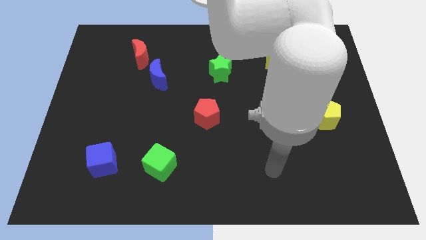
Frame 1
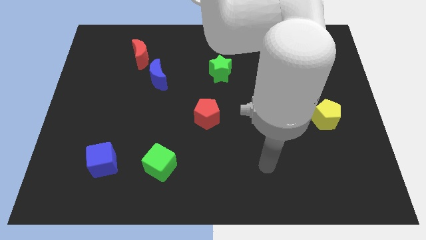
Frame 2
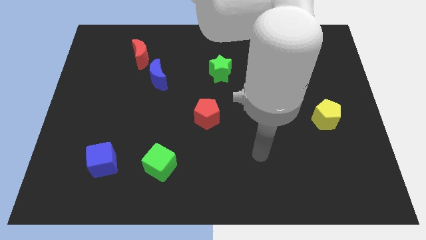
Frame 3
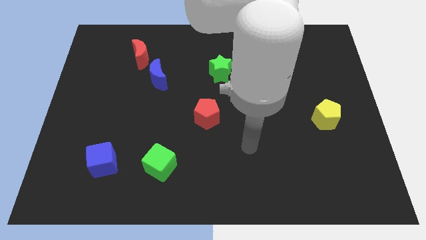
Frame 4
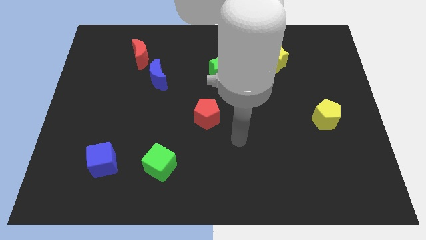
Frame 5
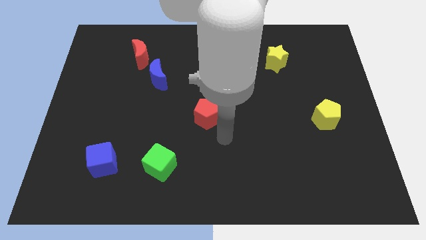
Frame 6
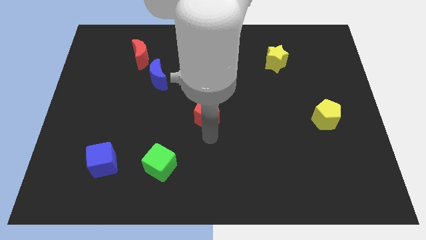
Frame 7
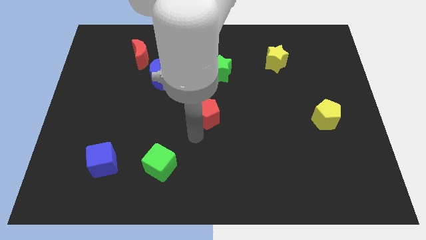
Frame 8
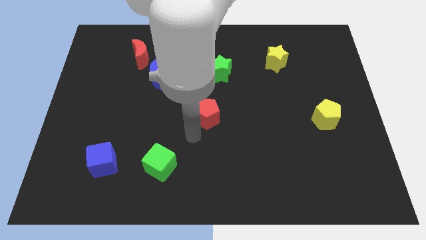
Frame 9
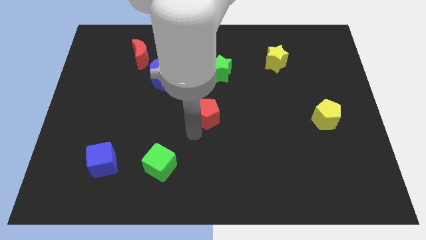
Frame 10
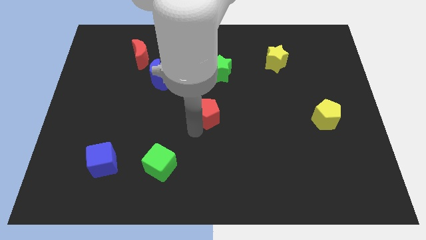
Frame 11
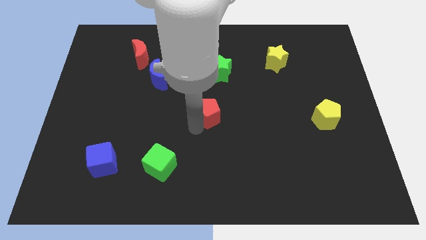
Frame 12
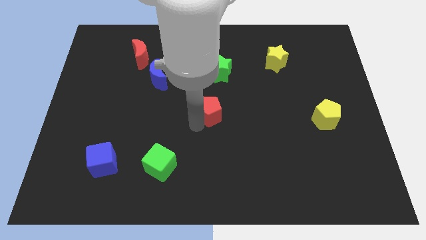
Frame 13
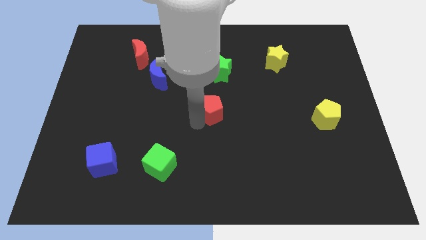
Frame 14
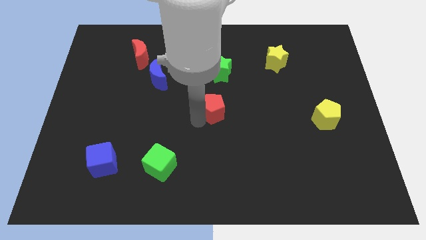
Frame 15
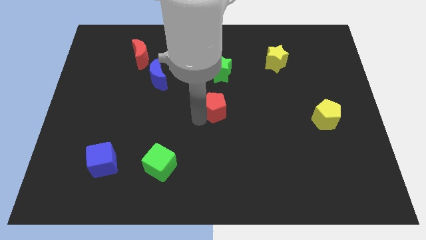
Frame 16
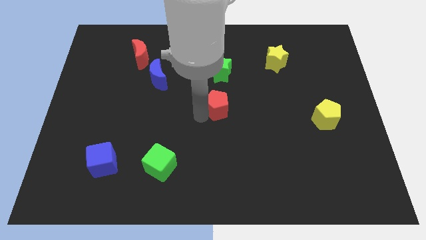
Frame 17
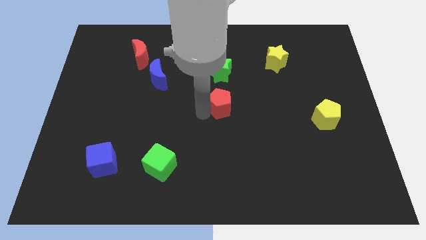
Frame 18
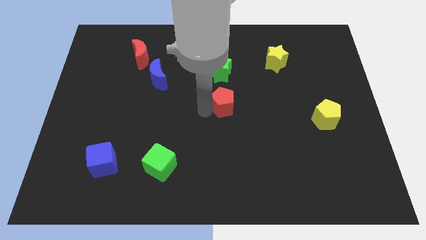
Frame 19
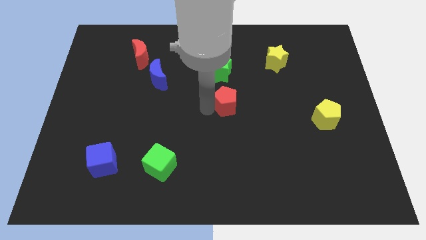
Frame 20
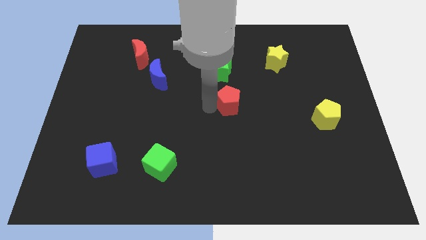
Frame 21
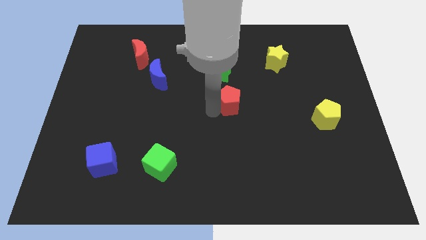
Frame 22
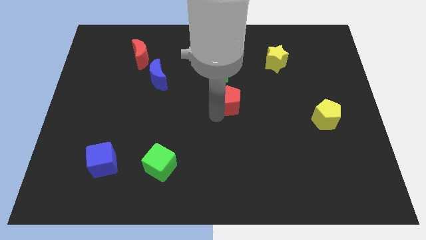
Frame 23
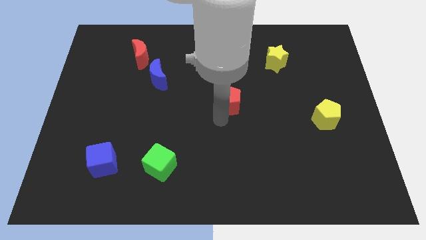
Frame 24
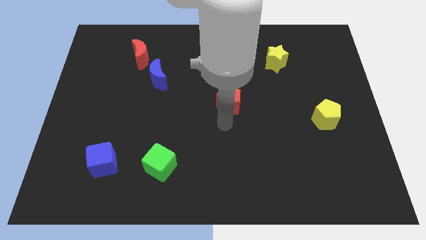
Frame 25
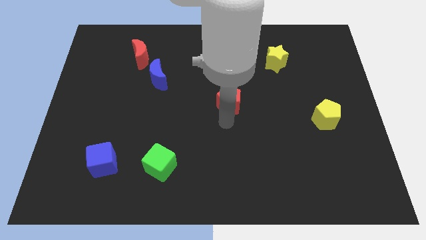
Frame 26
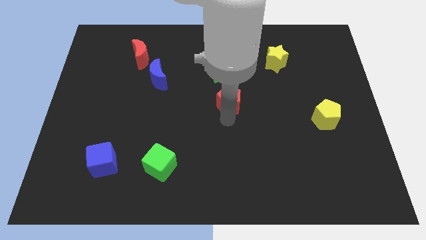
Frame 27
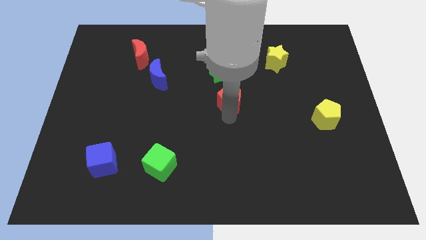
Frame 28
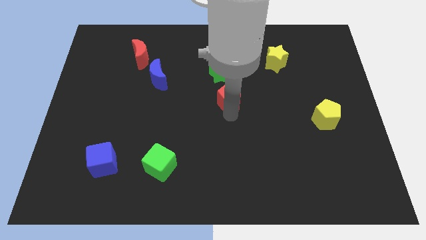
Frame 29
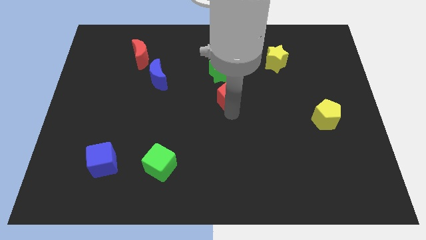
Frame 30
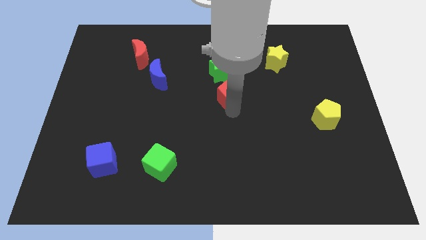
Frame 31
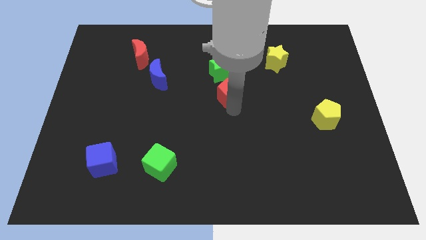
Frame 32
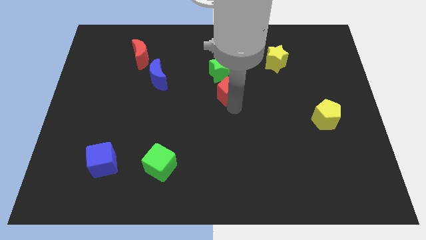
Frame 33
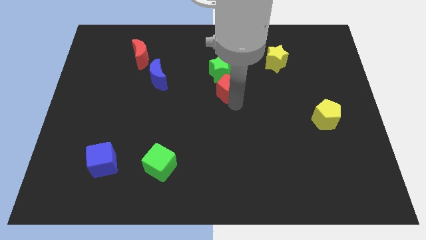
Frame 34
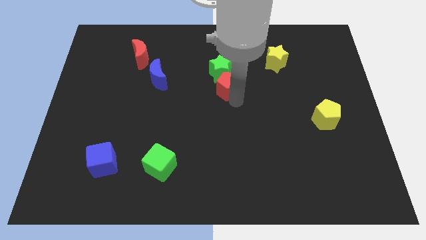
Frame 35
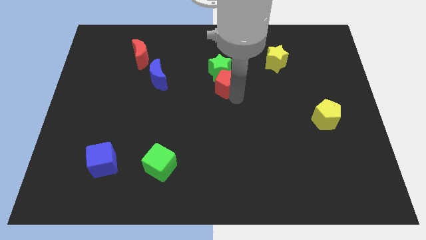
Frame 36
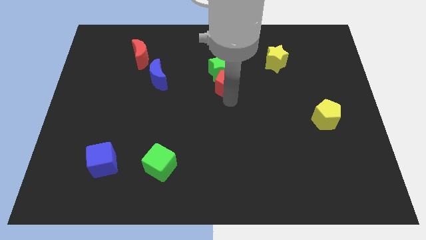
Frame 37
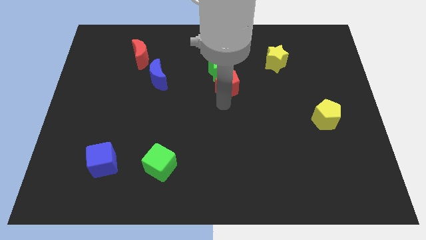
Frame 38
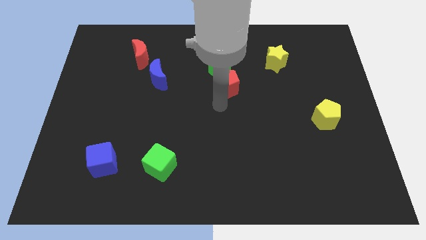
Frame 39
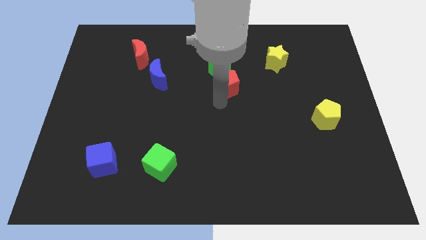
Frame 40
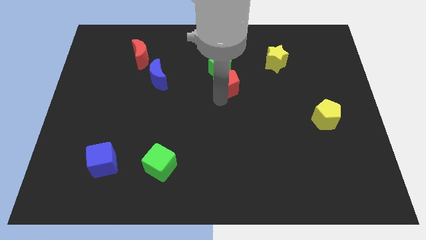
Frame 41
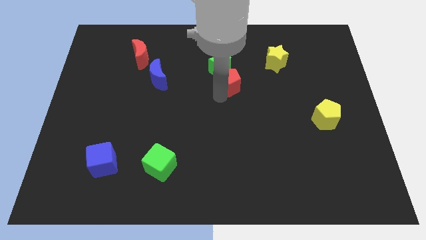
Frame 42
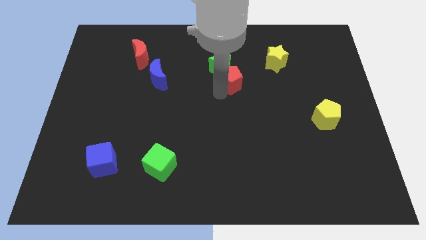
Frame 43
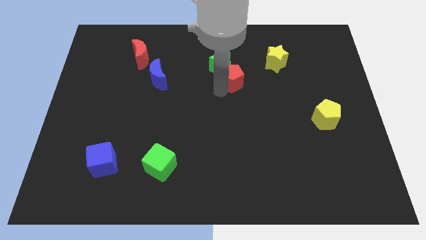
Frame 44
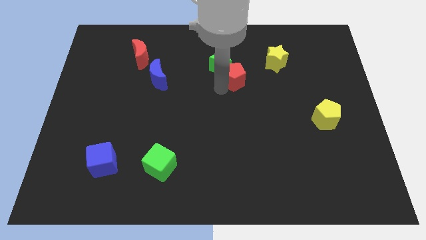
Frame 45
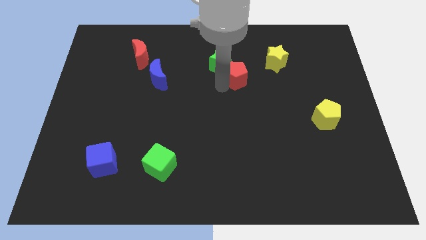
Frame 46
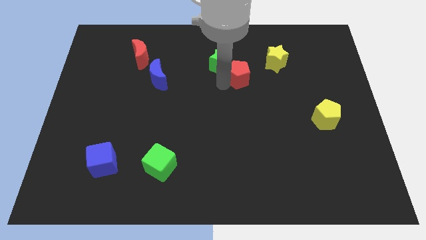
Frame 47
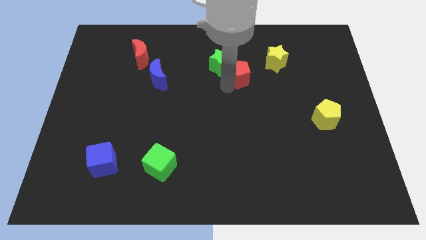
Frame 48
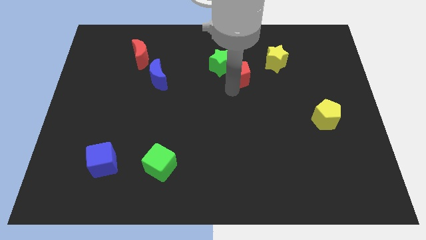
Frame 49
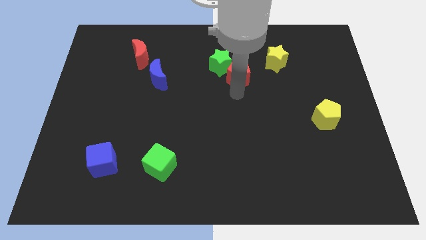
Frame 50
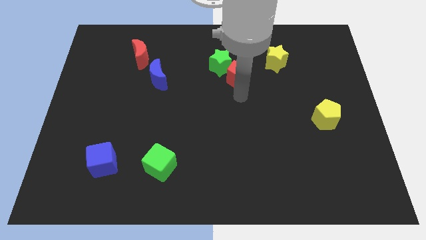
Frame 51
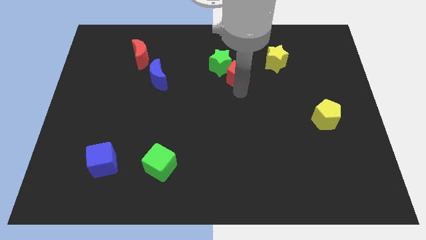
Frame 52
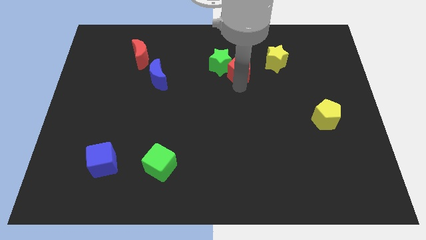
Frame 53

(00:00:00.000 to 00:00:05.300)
slide the red pentagon left of the yellow star

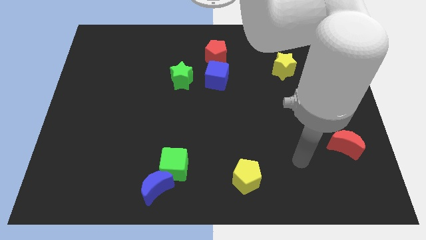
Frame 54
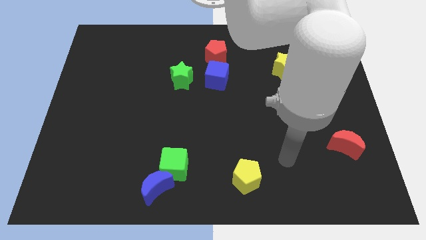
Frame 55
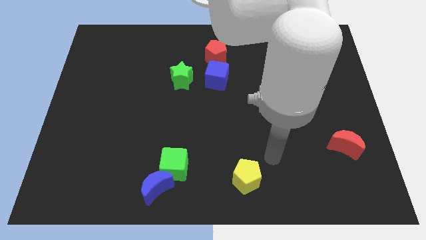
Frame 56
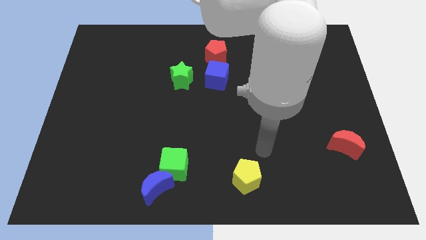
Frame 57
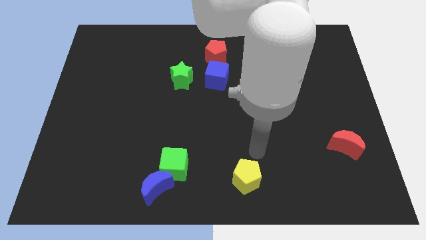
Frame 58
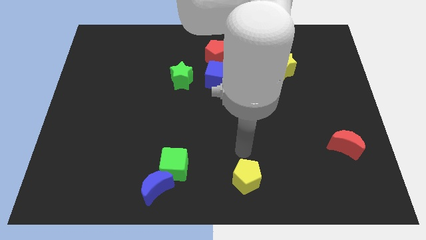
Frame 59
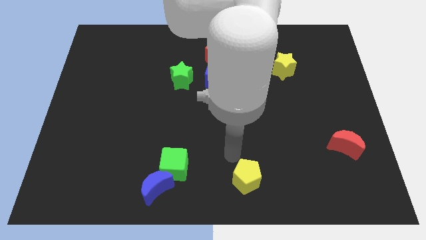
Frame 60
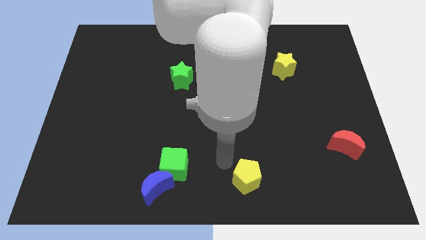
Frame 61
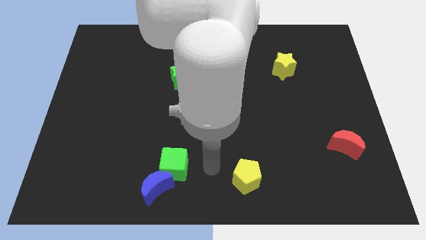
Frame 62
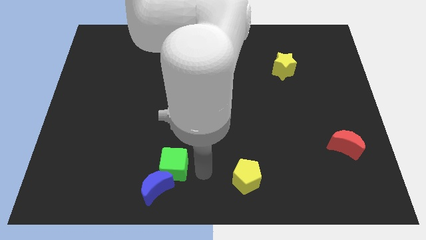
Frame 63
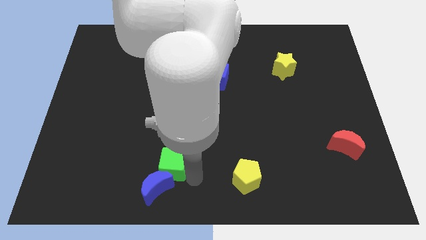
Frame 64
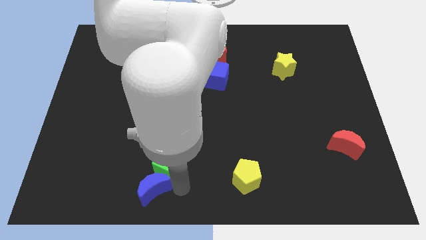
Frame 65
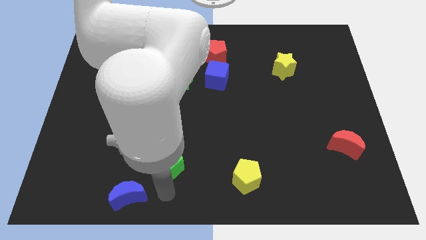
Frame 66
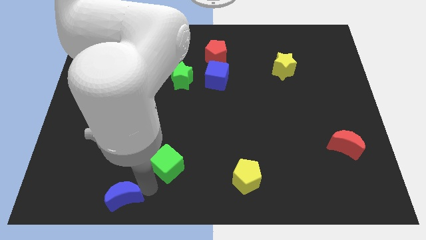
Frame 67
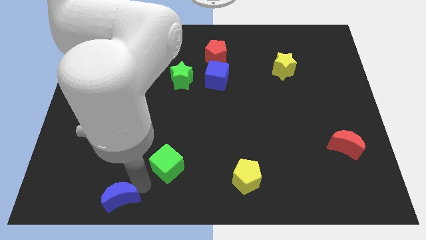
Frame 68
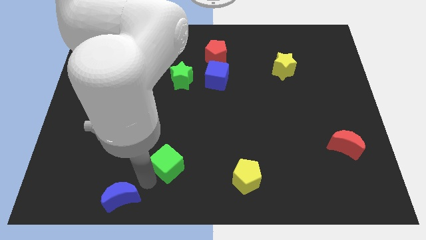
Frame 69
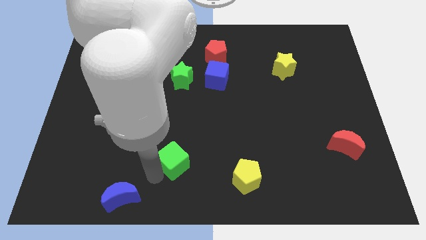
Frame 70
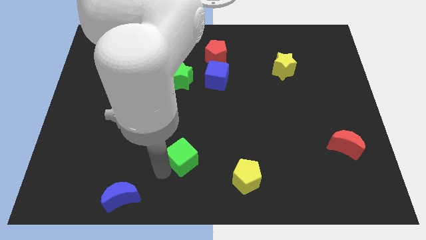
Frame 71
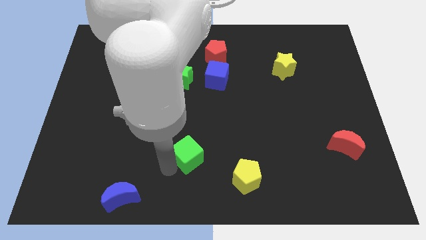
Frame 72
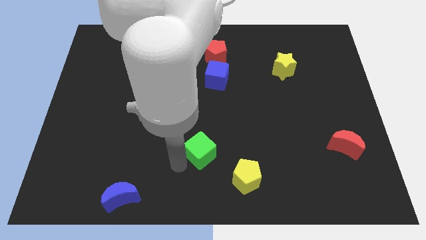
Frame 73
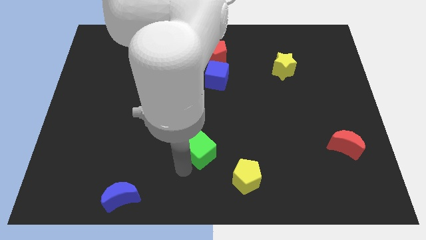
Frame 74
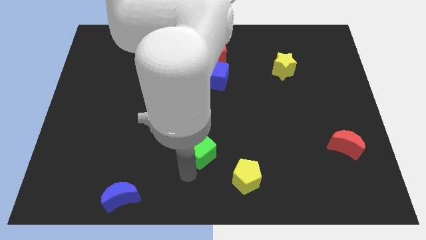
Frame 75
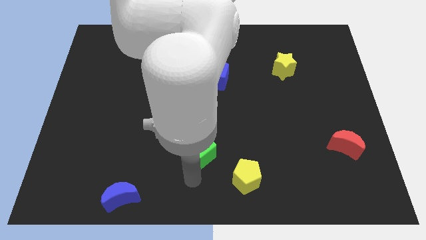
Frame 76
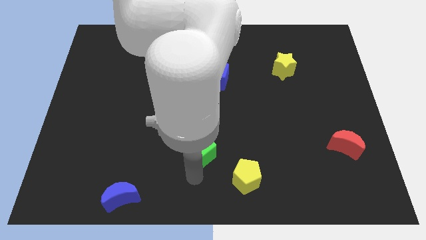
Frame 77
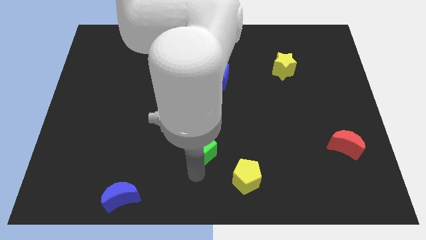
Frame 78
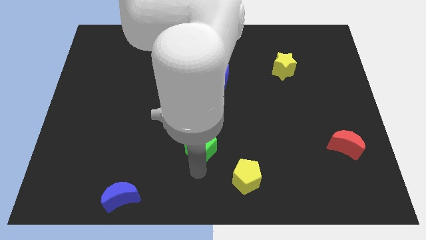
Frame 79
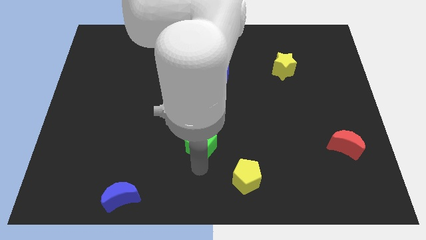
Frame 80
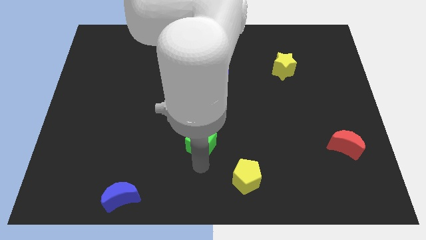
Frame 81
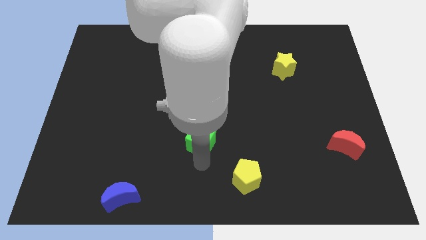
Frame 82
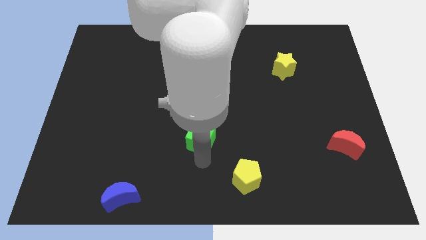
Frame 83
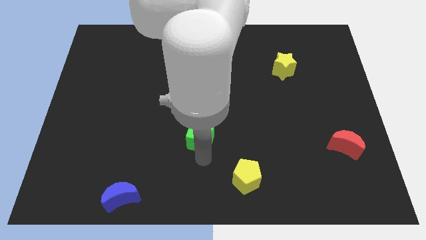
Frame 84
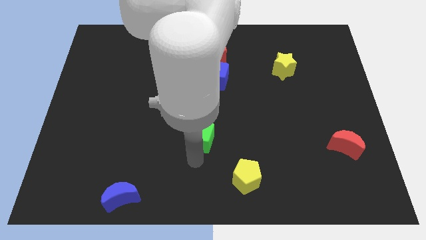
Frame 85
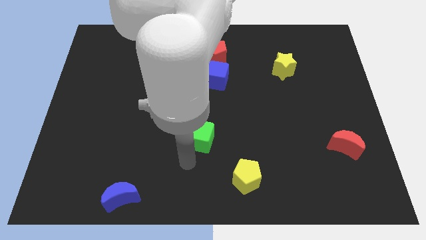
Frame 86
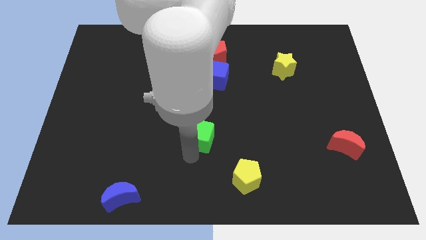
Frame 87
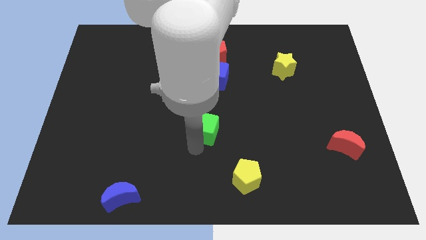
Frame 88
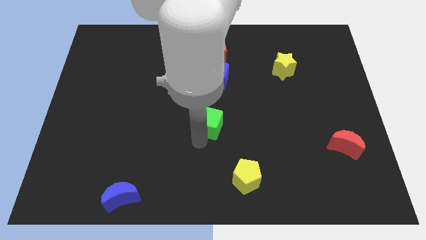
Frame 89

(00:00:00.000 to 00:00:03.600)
slide the green cube to the bottom of the blue cube
